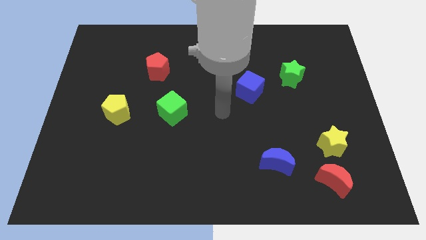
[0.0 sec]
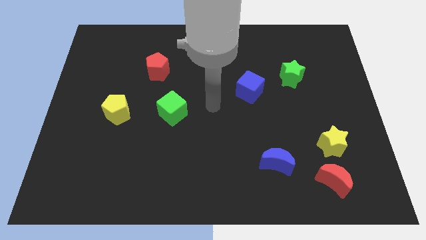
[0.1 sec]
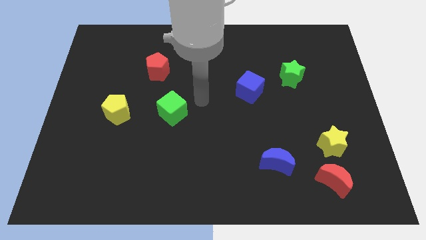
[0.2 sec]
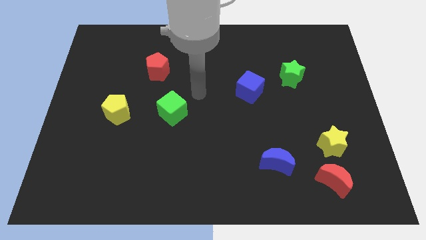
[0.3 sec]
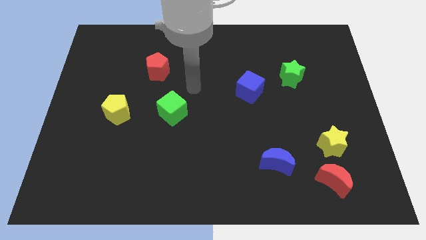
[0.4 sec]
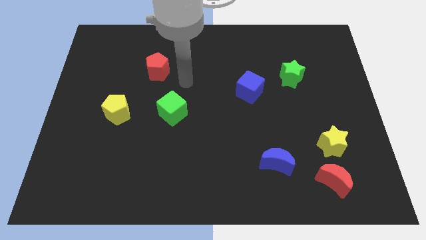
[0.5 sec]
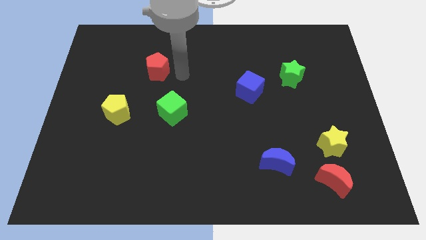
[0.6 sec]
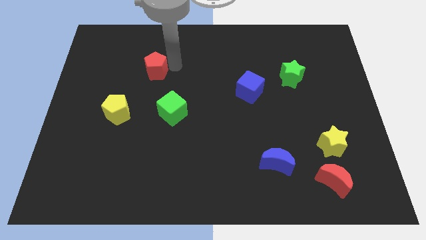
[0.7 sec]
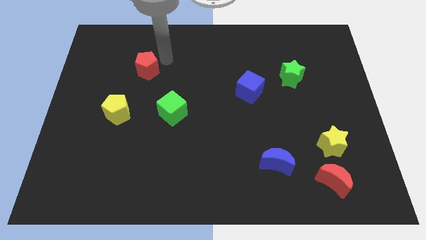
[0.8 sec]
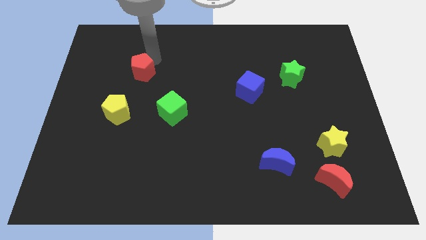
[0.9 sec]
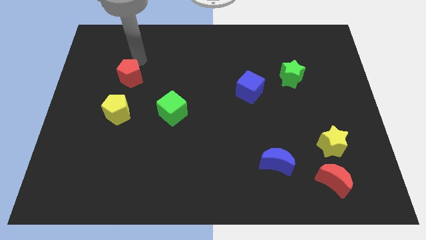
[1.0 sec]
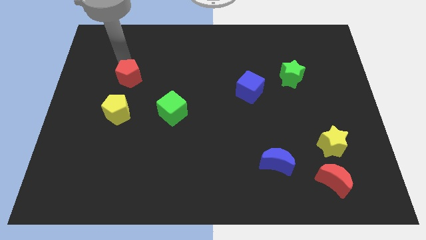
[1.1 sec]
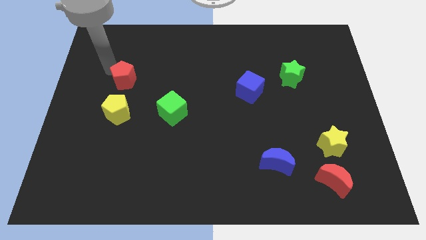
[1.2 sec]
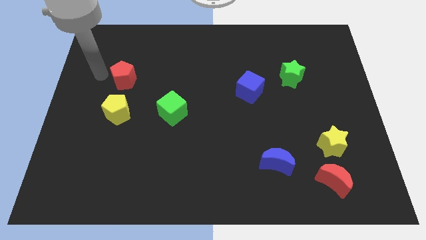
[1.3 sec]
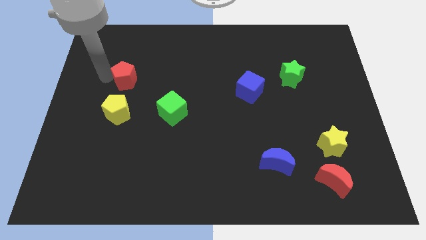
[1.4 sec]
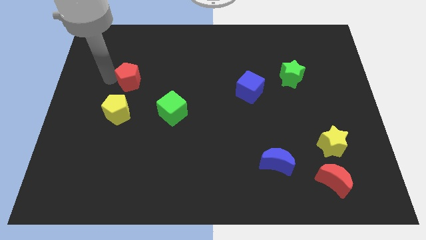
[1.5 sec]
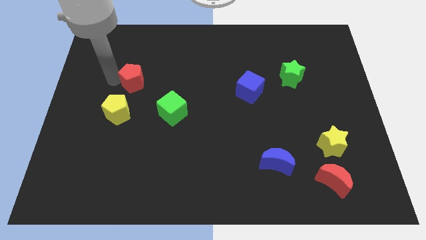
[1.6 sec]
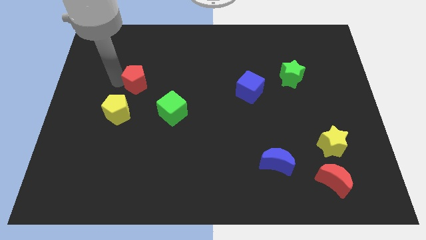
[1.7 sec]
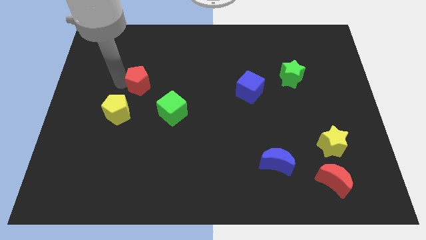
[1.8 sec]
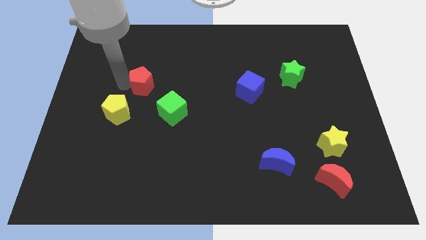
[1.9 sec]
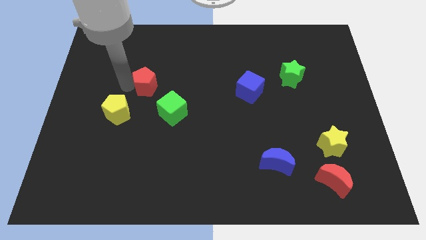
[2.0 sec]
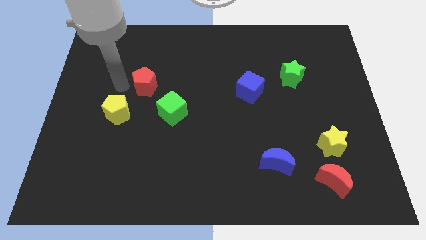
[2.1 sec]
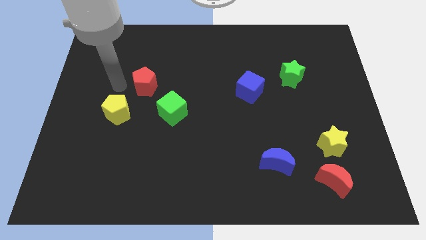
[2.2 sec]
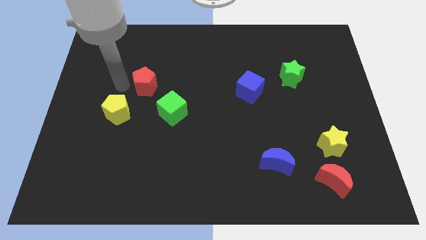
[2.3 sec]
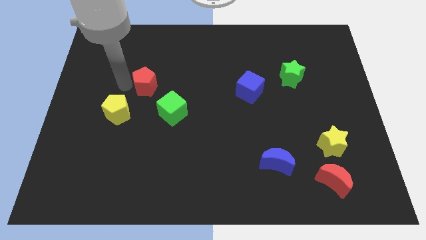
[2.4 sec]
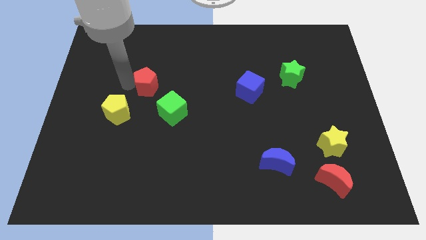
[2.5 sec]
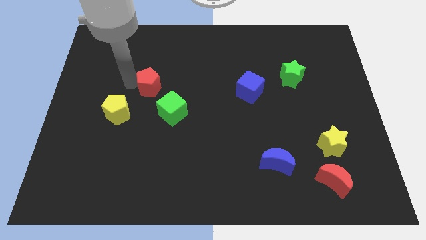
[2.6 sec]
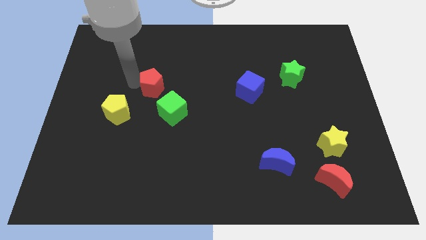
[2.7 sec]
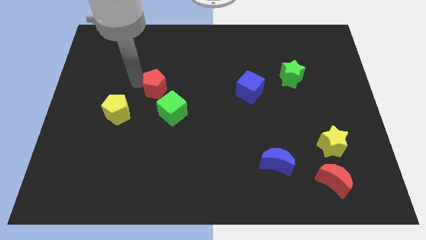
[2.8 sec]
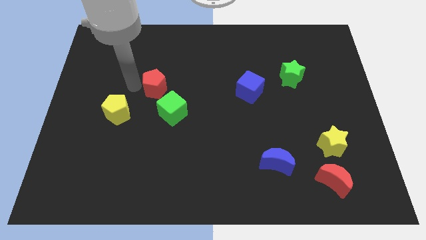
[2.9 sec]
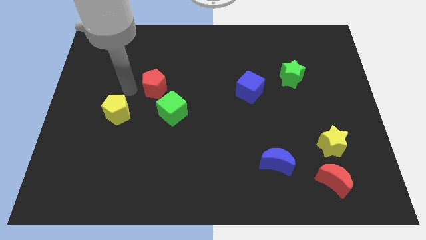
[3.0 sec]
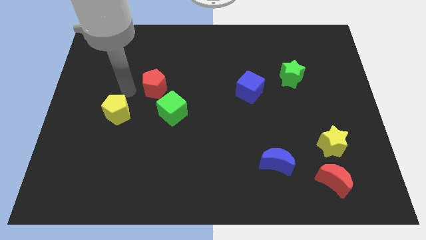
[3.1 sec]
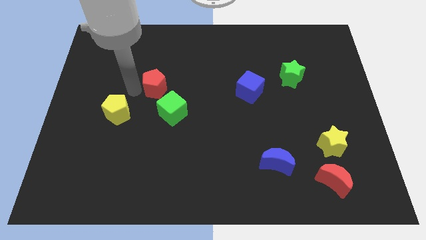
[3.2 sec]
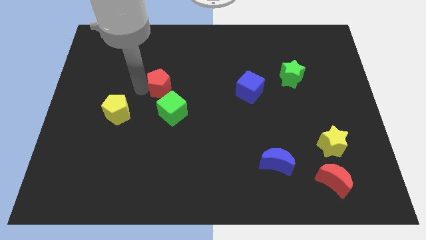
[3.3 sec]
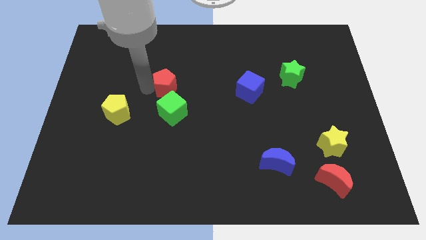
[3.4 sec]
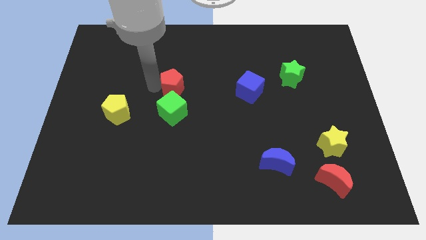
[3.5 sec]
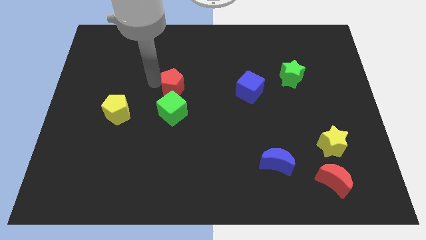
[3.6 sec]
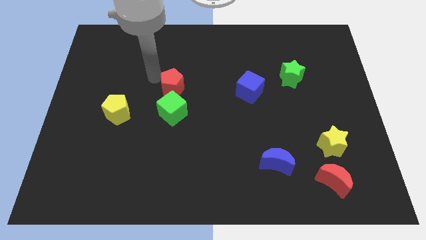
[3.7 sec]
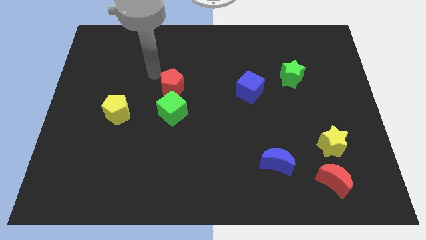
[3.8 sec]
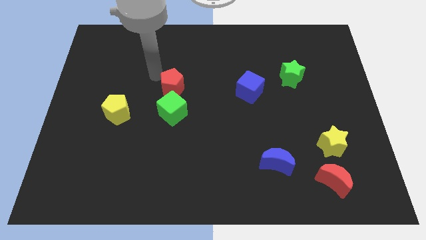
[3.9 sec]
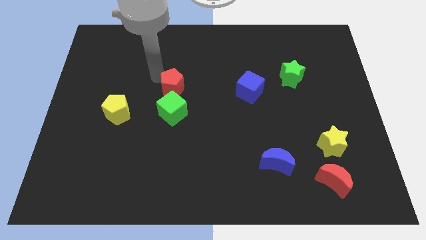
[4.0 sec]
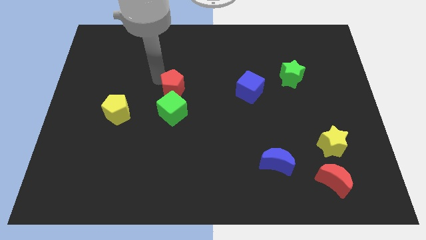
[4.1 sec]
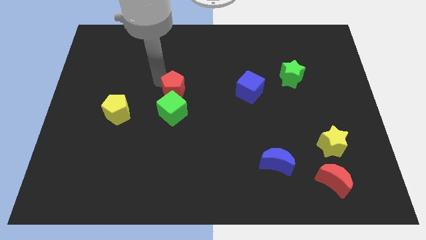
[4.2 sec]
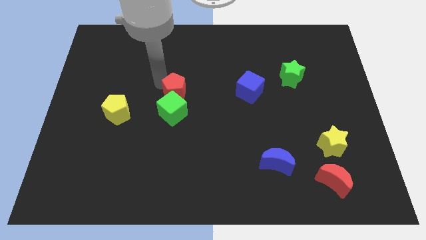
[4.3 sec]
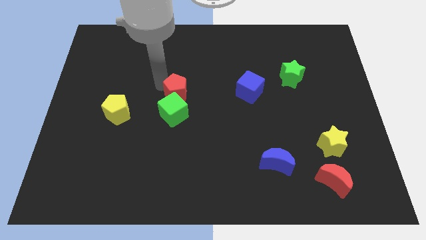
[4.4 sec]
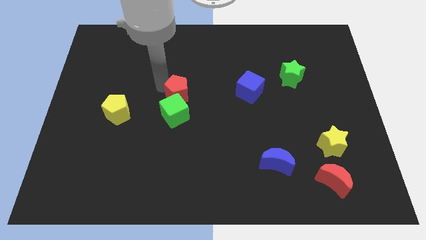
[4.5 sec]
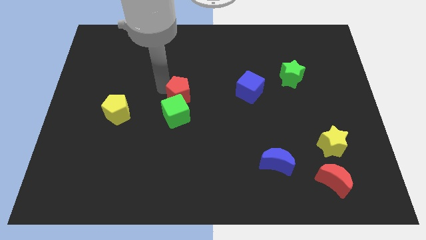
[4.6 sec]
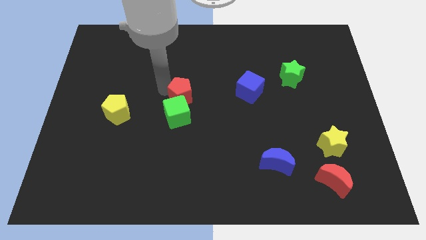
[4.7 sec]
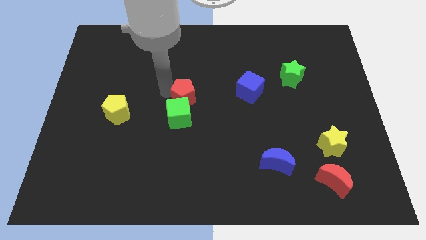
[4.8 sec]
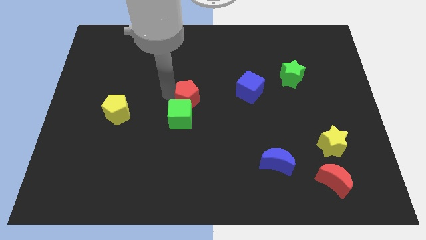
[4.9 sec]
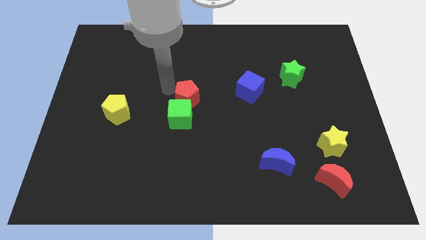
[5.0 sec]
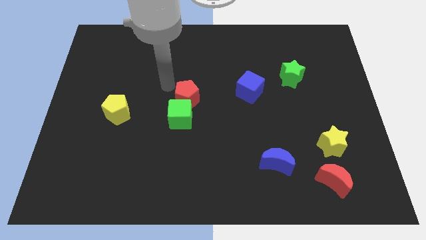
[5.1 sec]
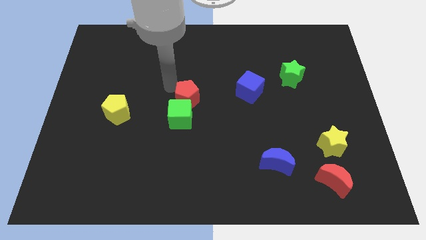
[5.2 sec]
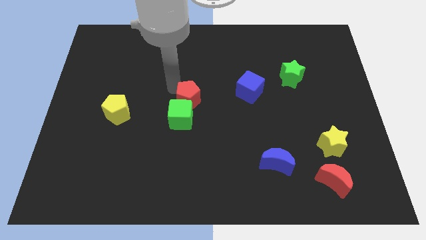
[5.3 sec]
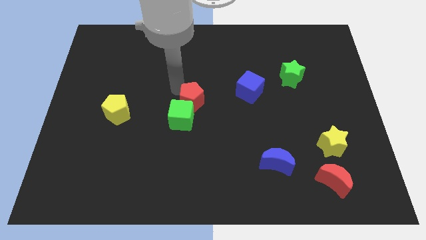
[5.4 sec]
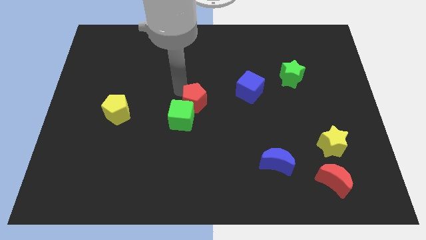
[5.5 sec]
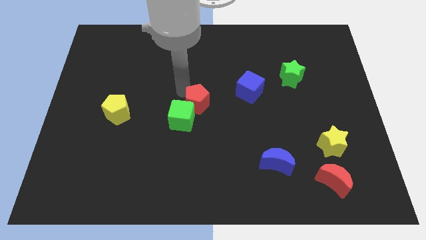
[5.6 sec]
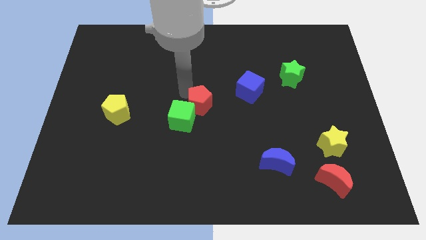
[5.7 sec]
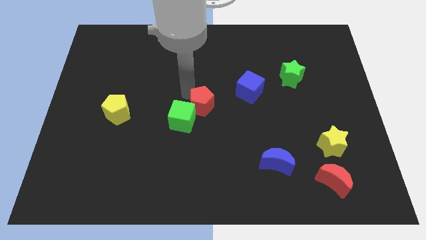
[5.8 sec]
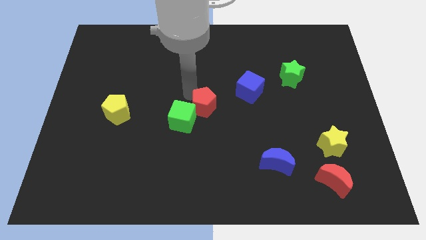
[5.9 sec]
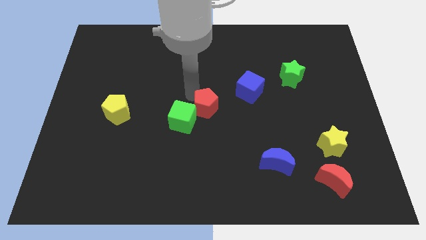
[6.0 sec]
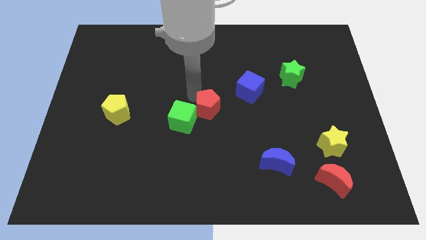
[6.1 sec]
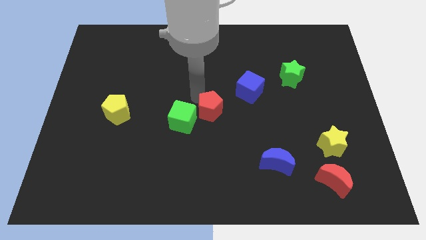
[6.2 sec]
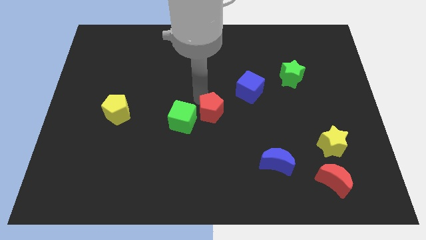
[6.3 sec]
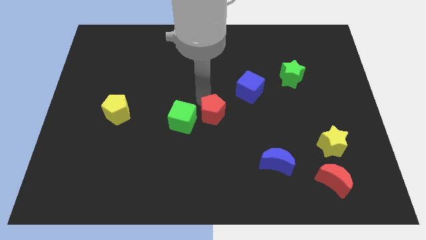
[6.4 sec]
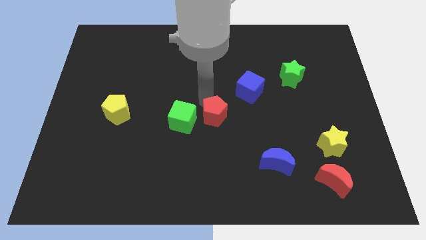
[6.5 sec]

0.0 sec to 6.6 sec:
slide the red pentagon diagonally down and to the right

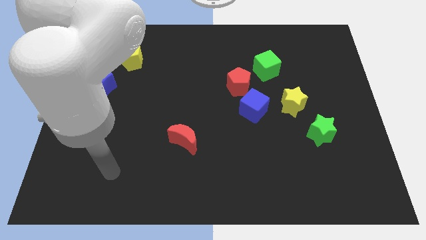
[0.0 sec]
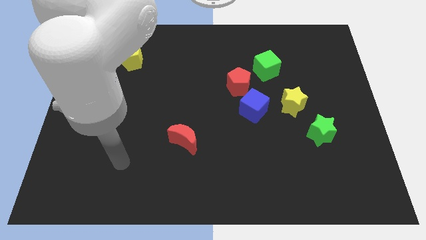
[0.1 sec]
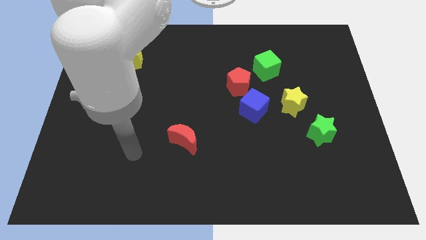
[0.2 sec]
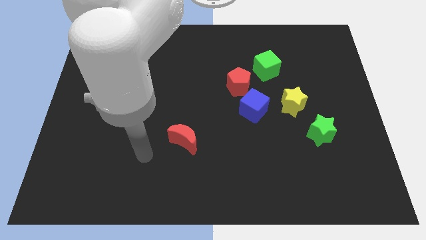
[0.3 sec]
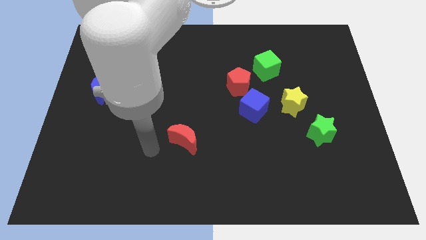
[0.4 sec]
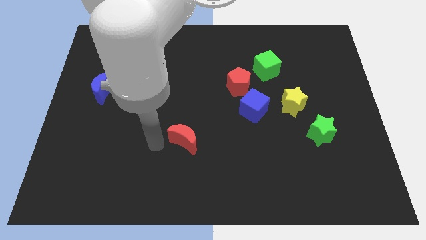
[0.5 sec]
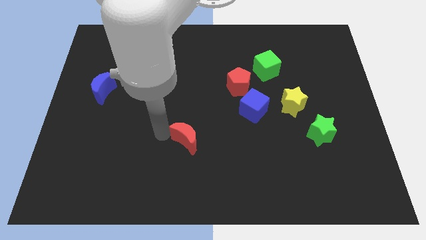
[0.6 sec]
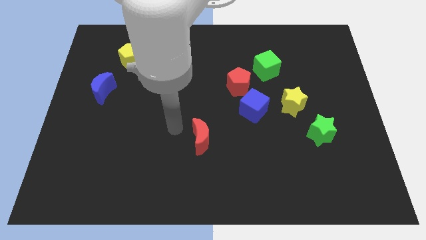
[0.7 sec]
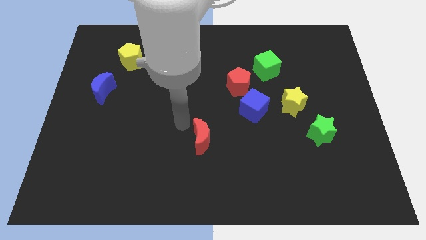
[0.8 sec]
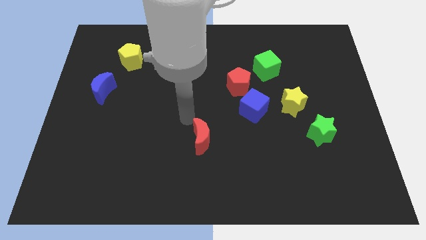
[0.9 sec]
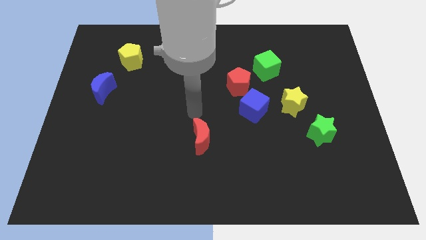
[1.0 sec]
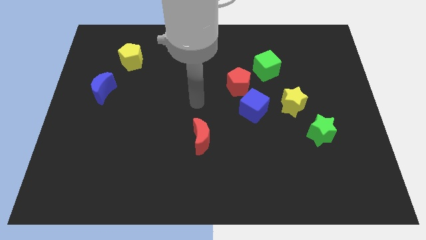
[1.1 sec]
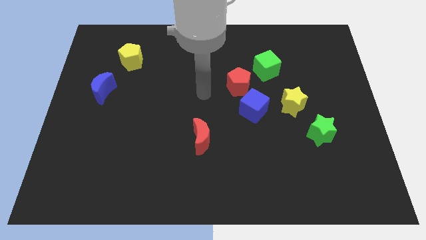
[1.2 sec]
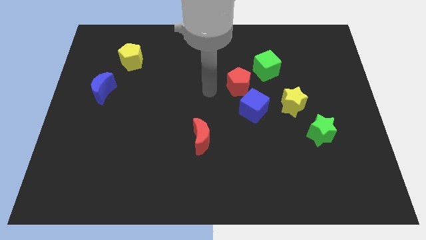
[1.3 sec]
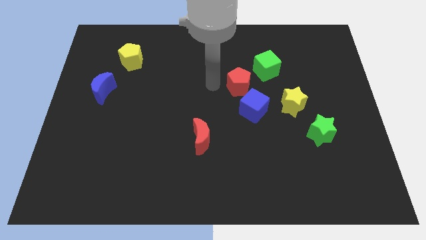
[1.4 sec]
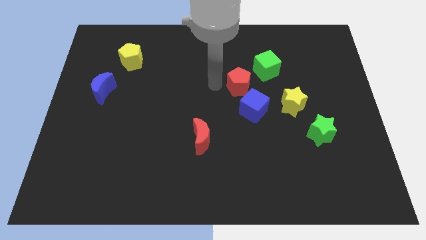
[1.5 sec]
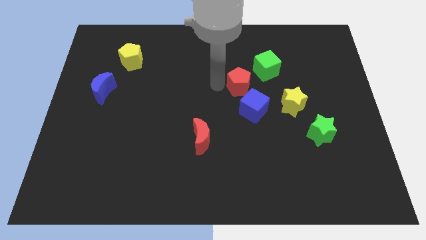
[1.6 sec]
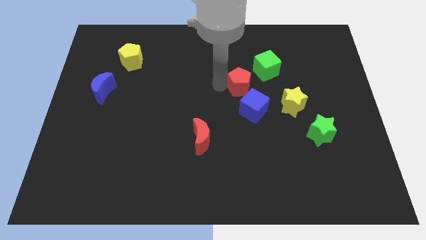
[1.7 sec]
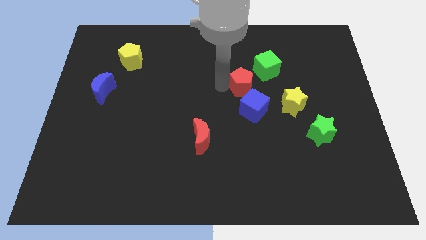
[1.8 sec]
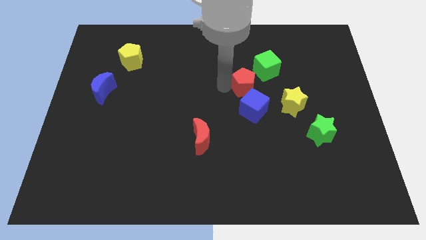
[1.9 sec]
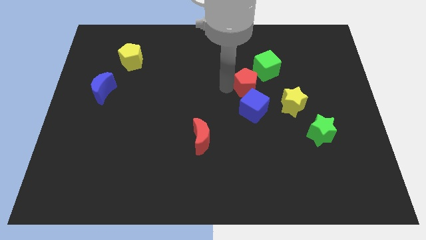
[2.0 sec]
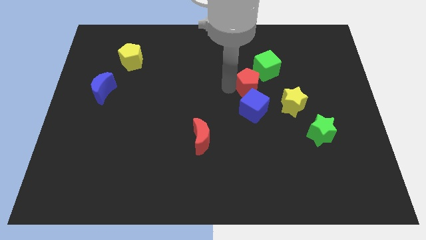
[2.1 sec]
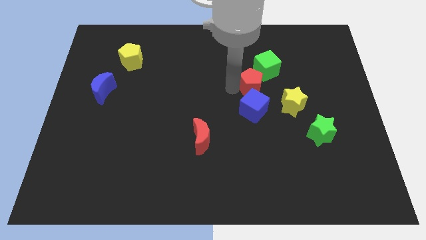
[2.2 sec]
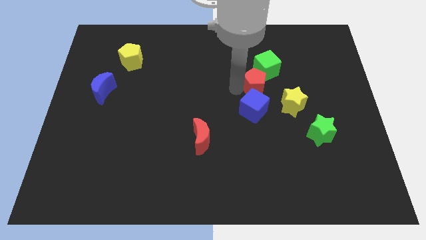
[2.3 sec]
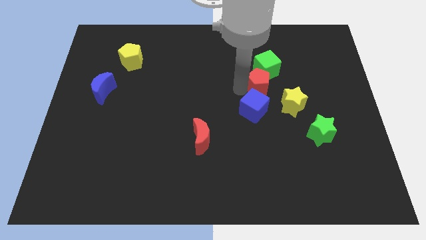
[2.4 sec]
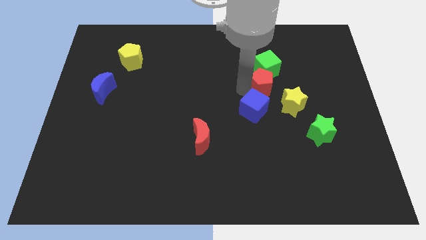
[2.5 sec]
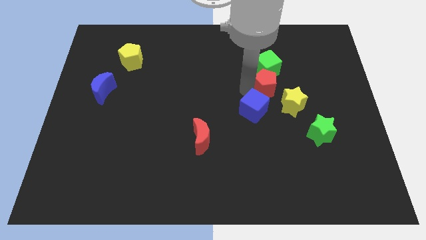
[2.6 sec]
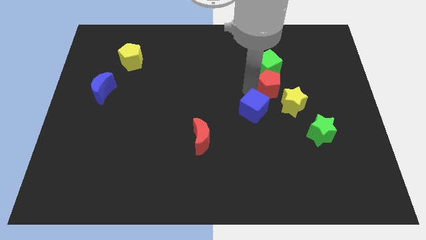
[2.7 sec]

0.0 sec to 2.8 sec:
slightly move the red pentagon right
